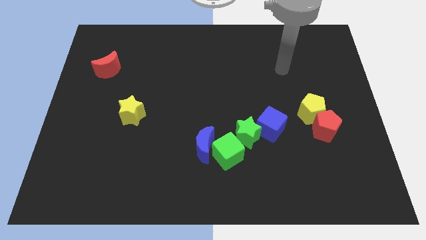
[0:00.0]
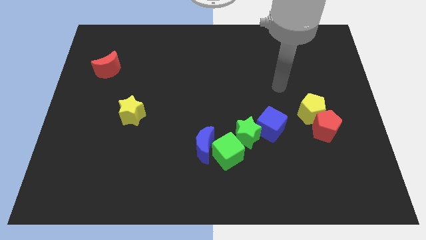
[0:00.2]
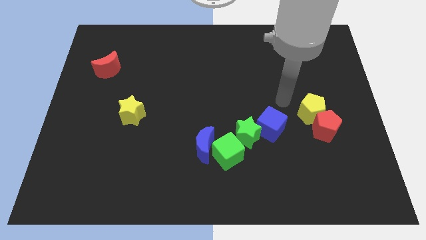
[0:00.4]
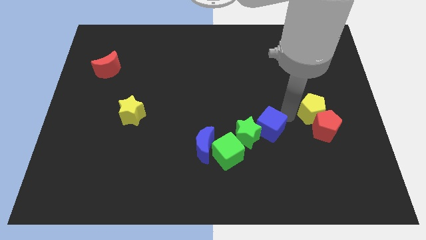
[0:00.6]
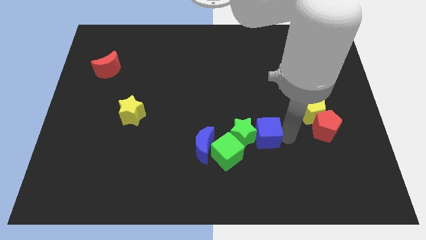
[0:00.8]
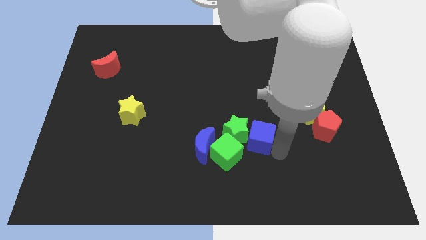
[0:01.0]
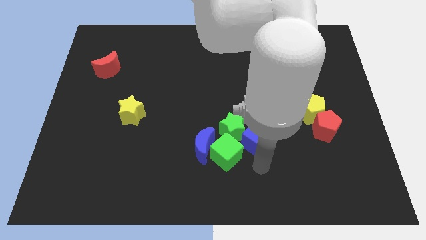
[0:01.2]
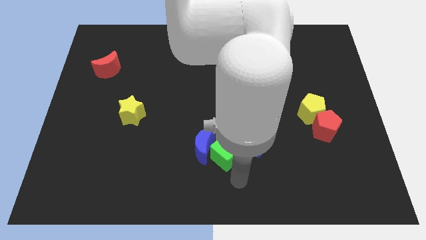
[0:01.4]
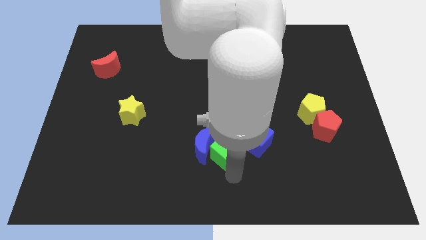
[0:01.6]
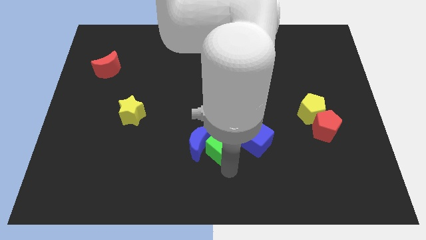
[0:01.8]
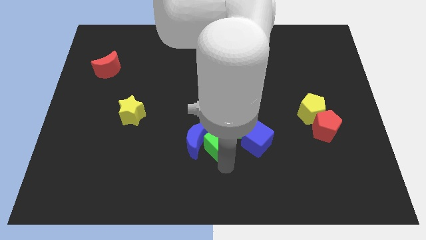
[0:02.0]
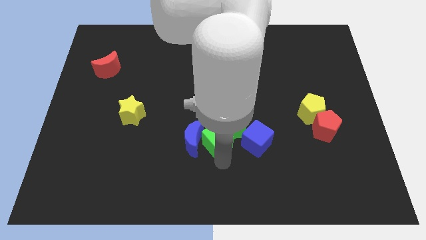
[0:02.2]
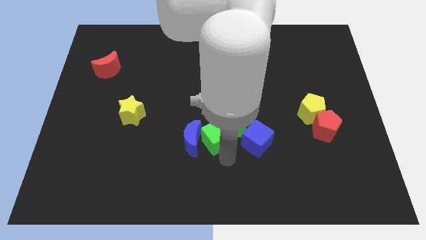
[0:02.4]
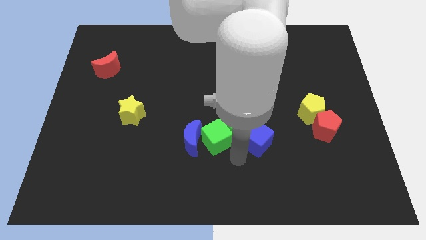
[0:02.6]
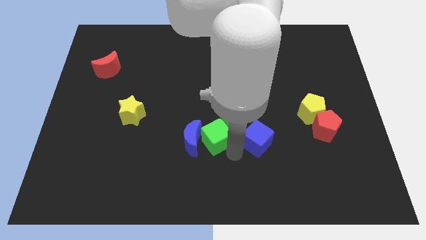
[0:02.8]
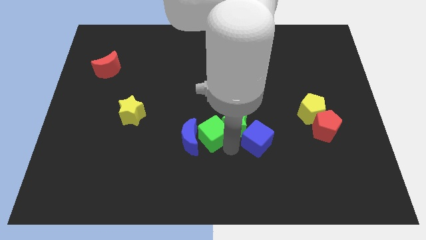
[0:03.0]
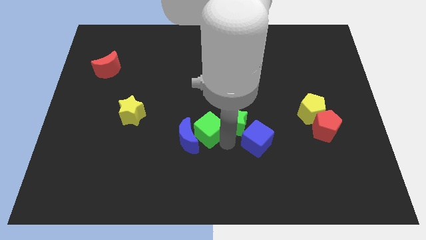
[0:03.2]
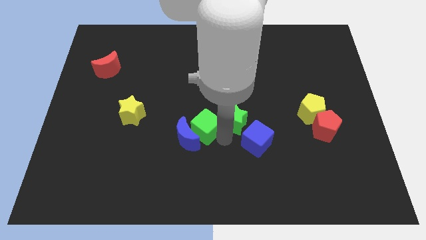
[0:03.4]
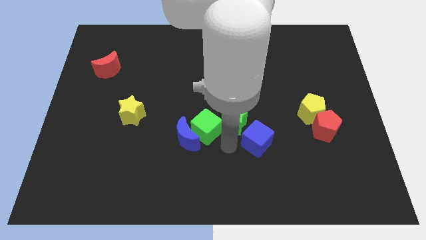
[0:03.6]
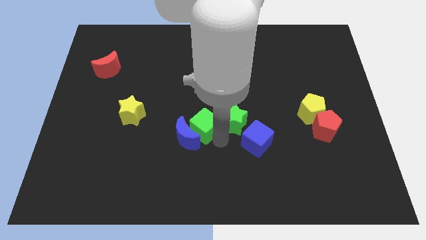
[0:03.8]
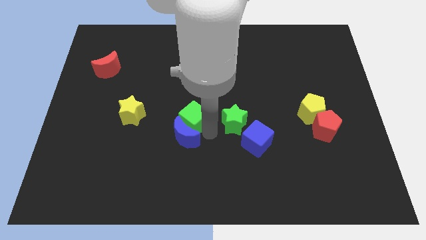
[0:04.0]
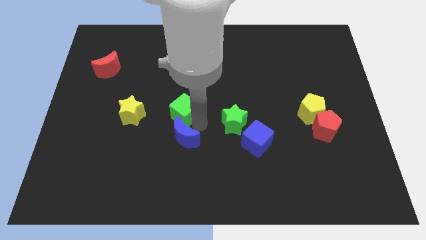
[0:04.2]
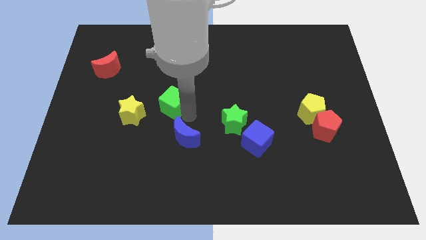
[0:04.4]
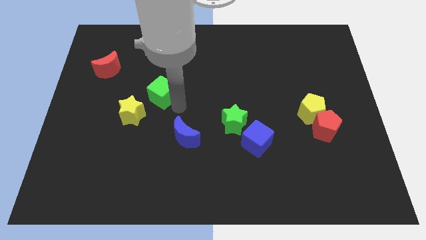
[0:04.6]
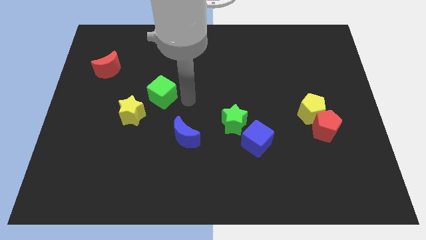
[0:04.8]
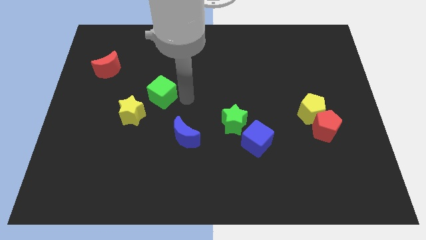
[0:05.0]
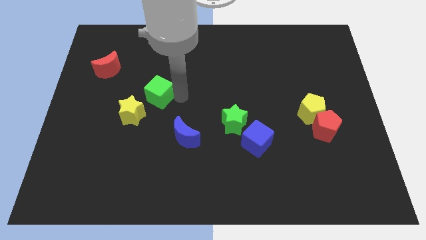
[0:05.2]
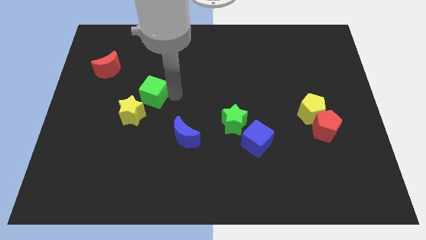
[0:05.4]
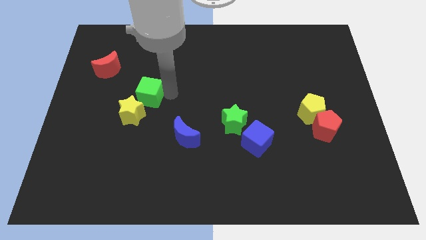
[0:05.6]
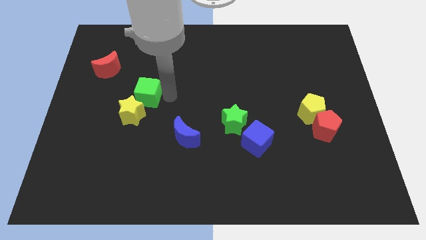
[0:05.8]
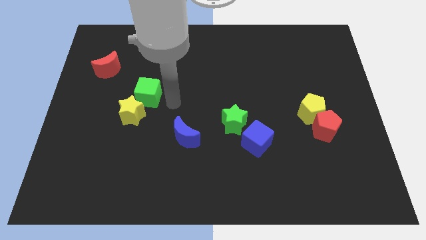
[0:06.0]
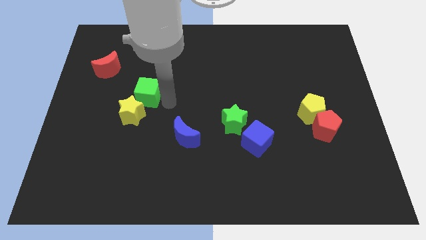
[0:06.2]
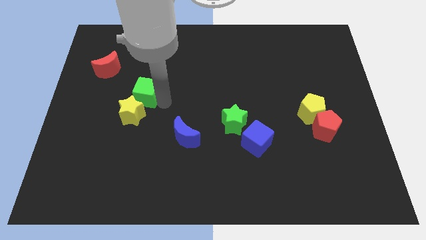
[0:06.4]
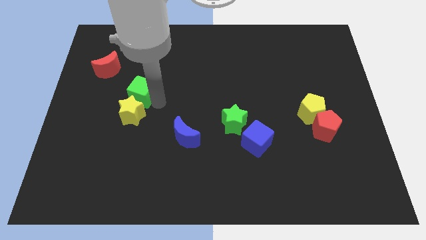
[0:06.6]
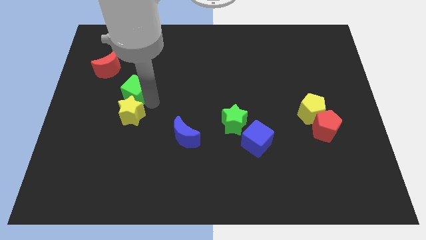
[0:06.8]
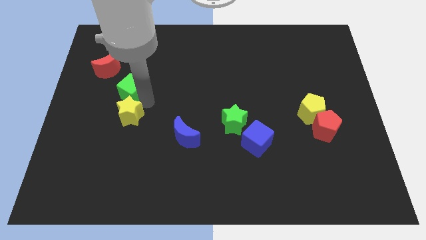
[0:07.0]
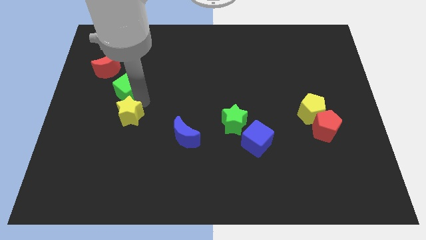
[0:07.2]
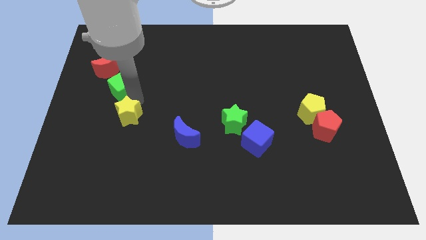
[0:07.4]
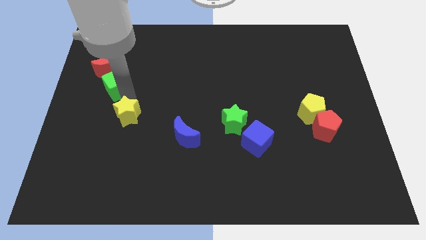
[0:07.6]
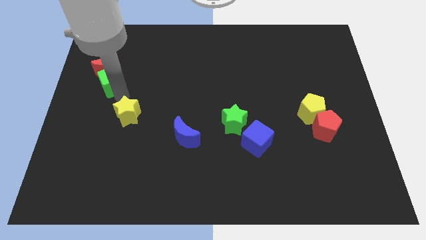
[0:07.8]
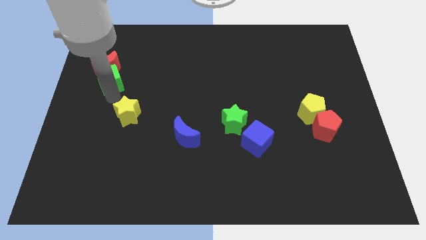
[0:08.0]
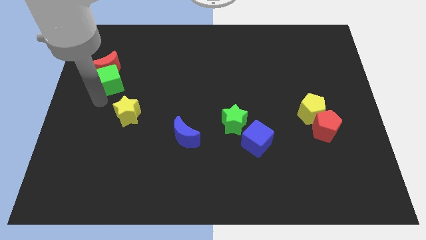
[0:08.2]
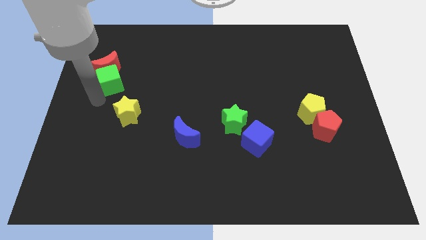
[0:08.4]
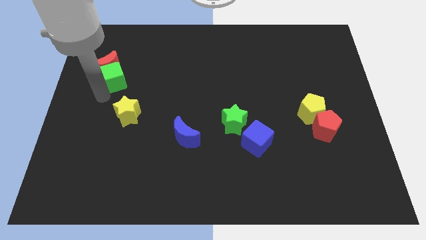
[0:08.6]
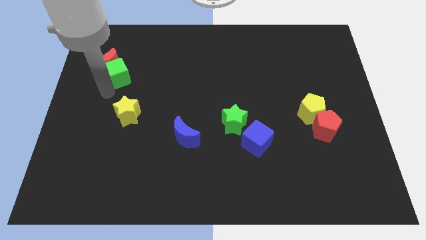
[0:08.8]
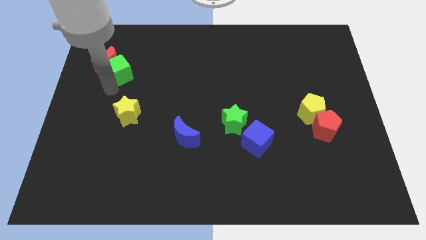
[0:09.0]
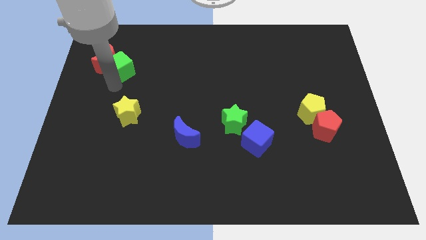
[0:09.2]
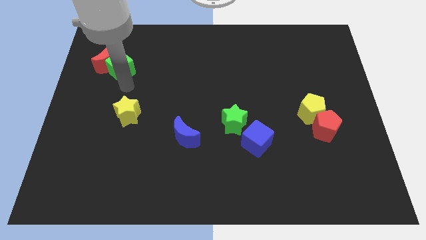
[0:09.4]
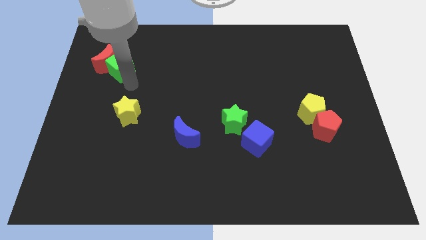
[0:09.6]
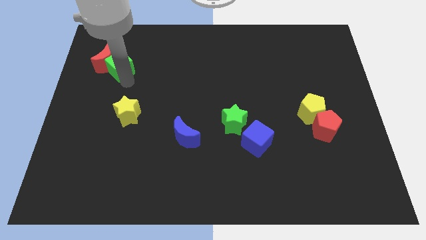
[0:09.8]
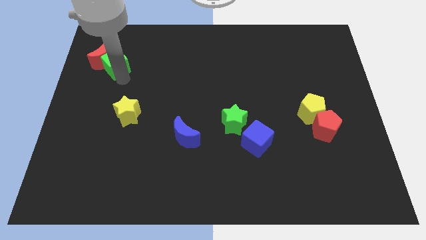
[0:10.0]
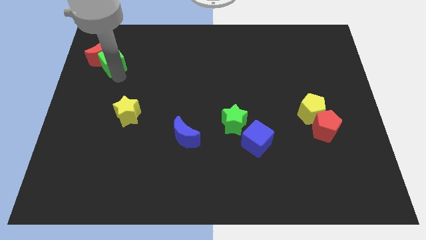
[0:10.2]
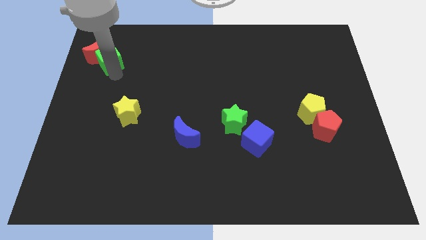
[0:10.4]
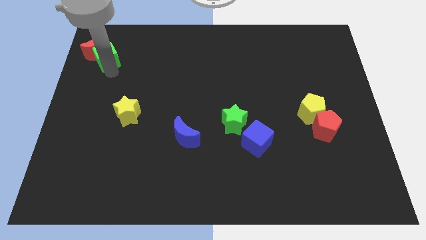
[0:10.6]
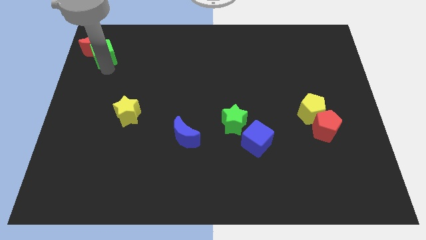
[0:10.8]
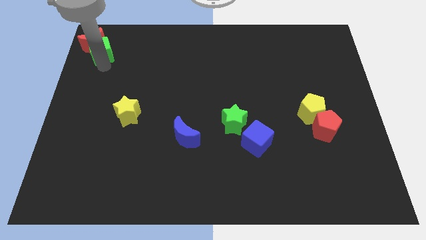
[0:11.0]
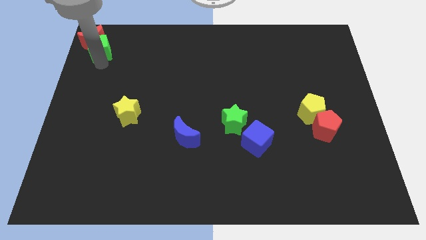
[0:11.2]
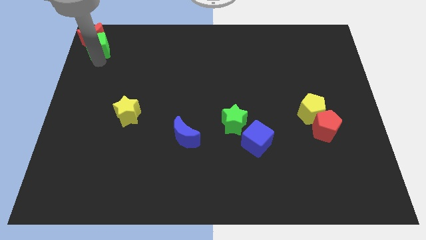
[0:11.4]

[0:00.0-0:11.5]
put the green cube to the top left
